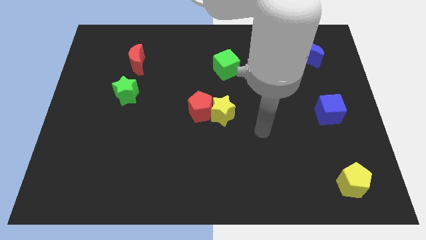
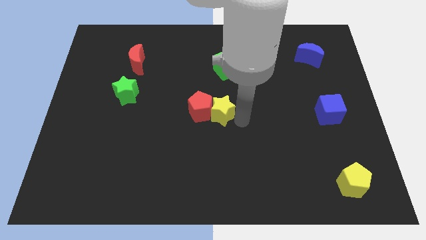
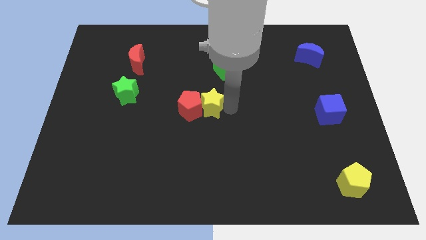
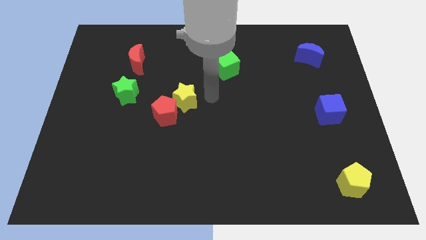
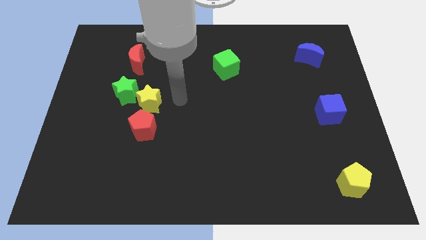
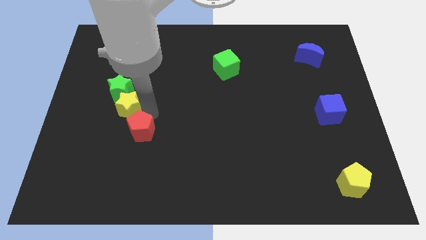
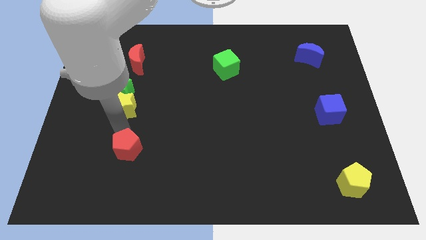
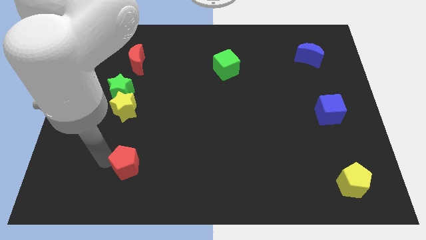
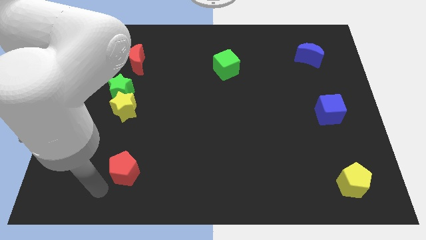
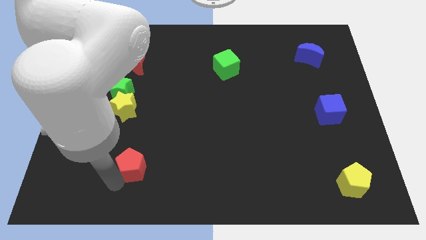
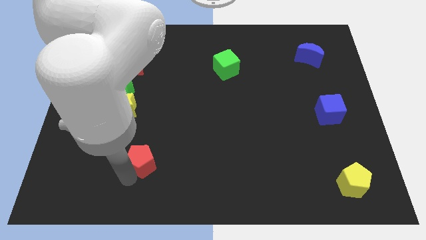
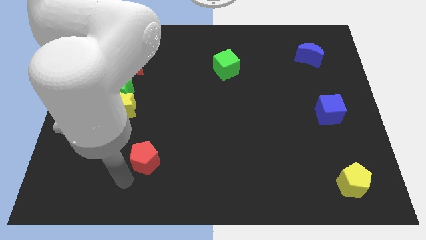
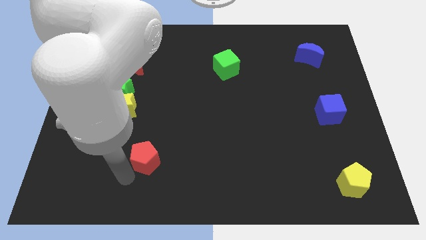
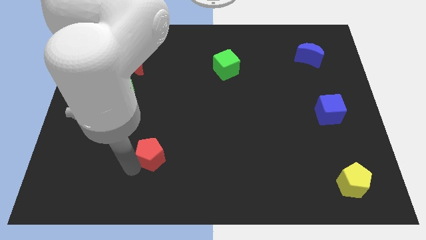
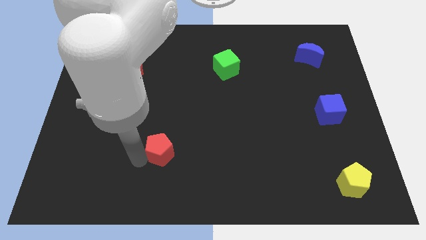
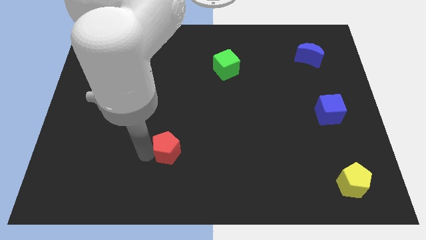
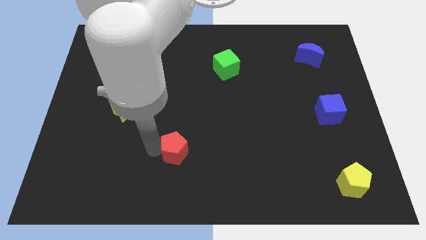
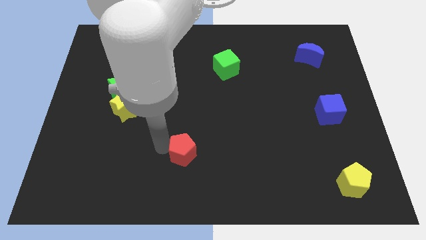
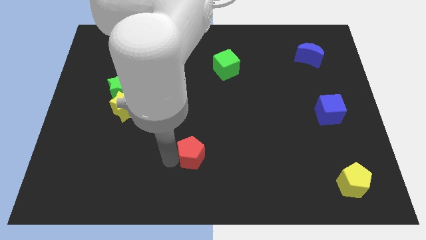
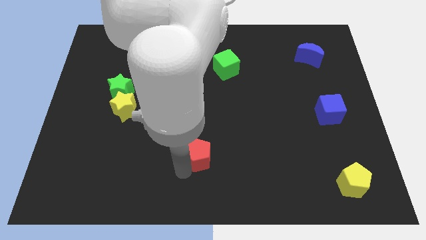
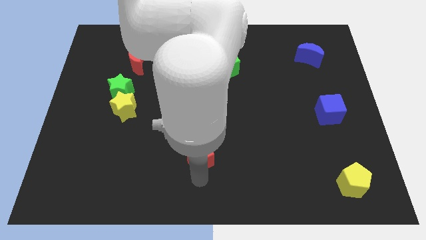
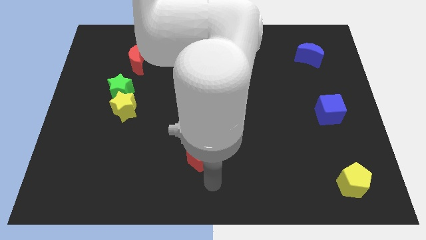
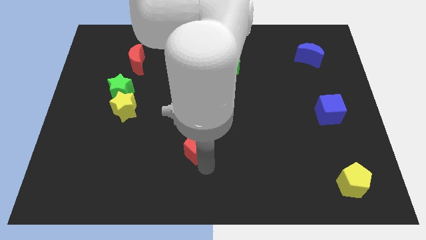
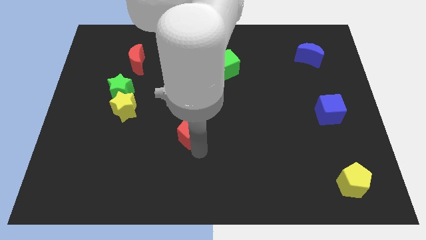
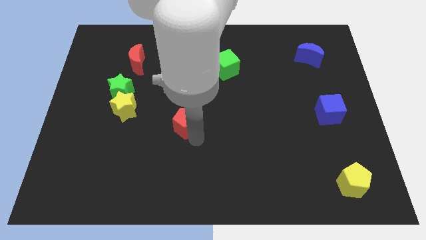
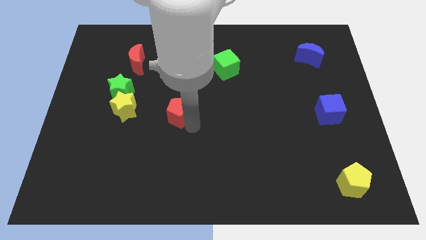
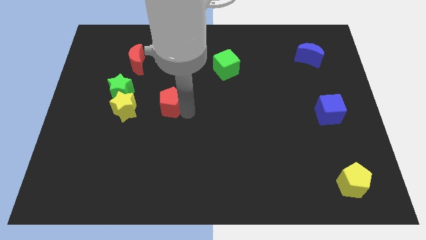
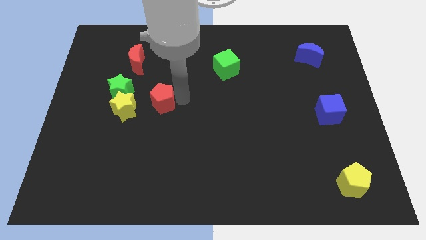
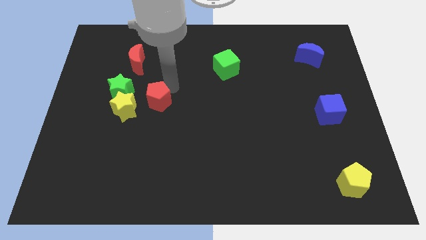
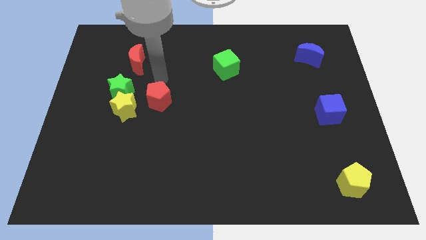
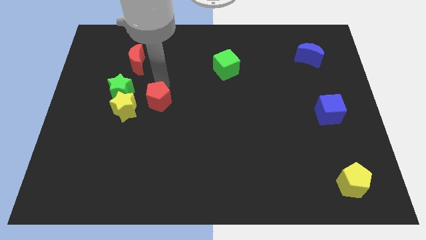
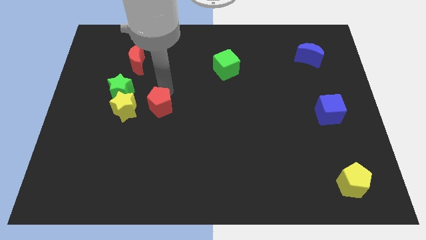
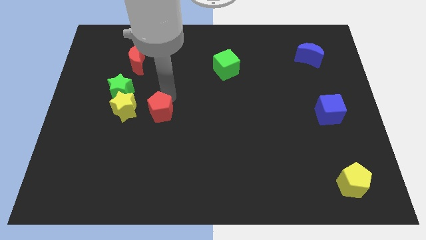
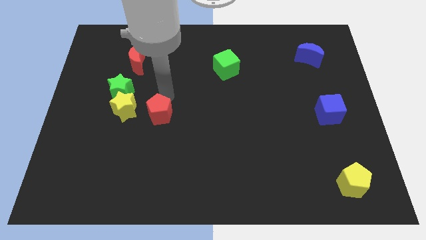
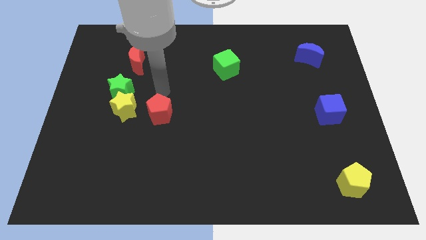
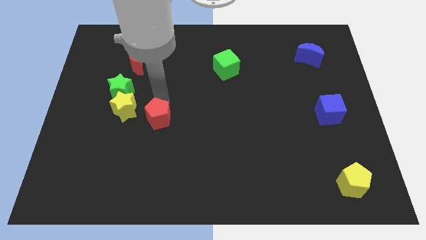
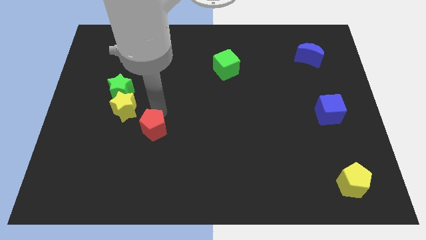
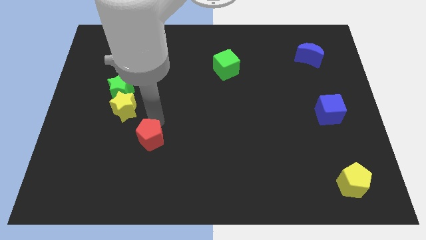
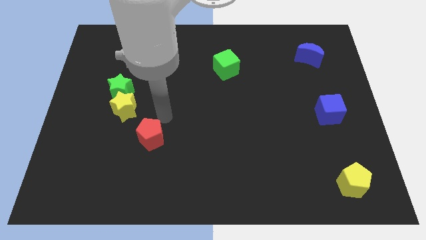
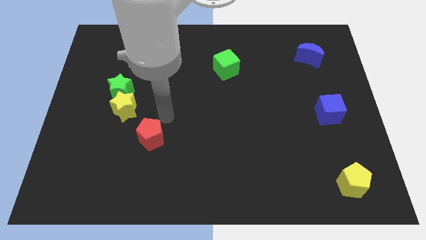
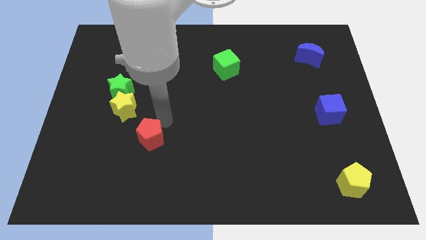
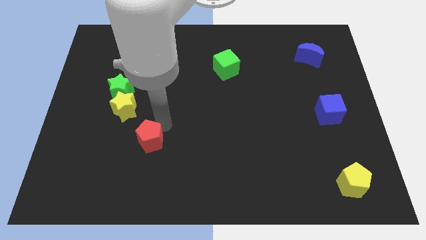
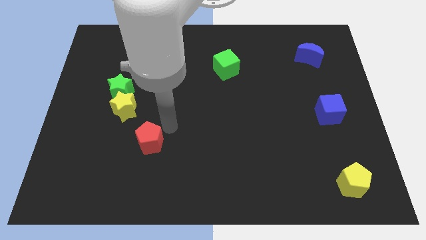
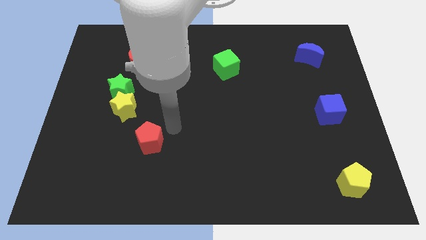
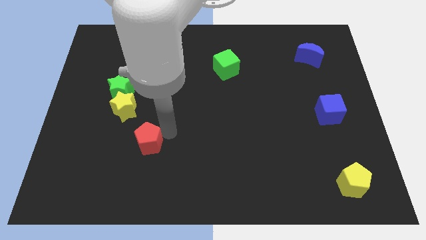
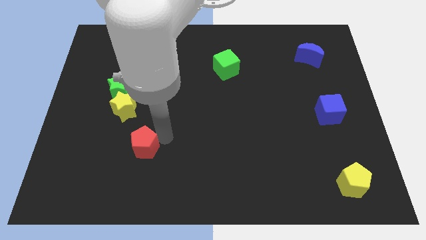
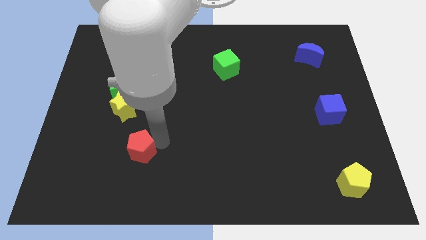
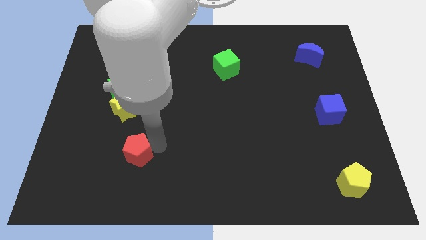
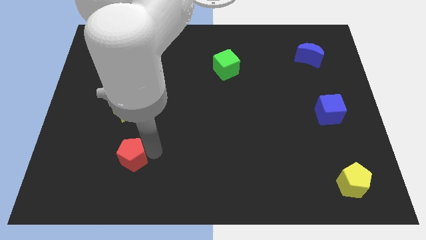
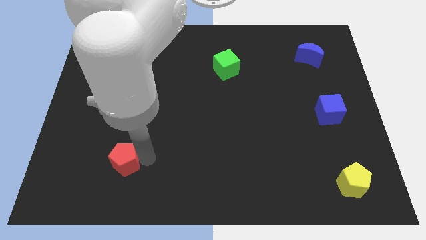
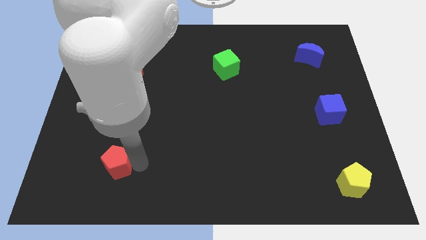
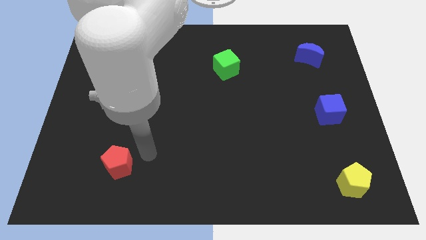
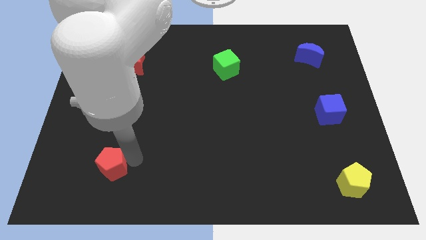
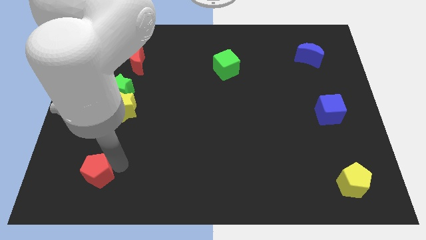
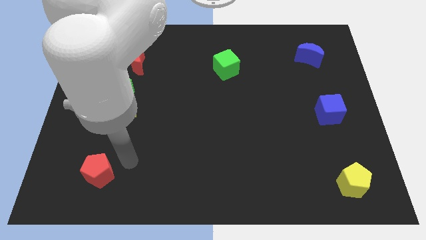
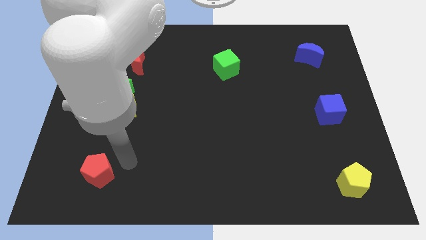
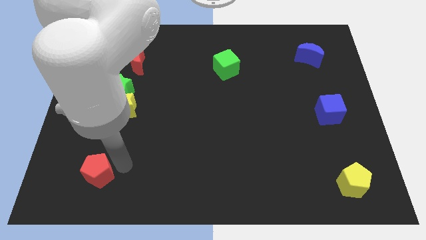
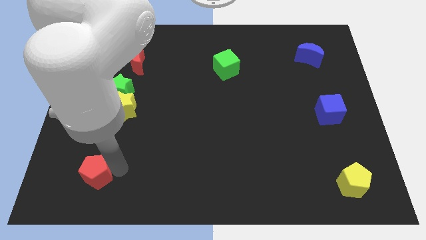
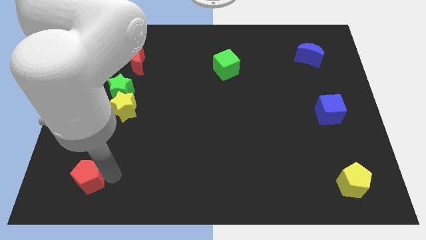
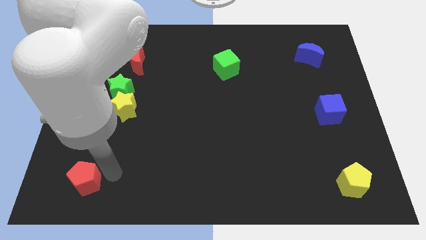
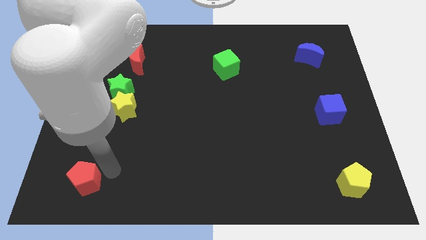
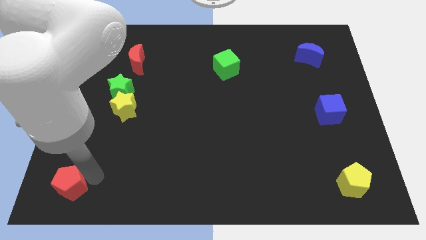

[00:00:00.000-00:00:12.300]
put the red pentagon to the bottom left corner

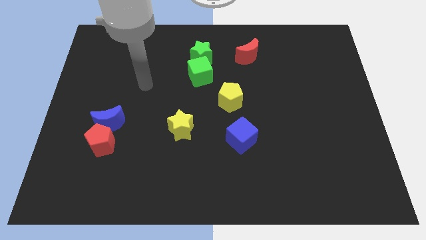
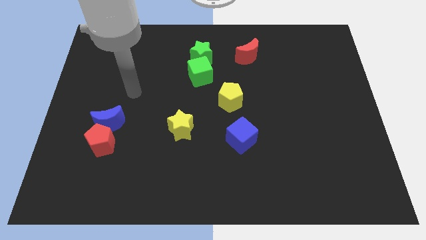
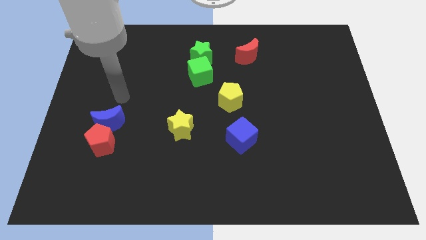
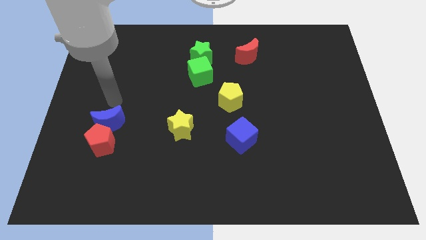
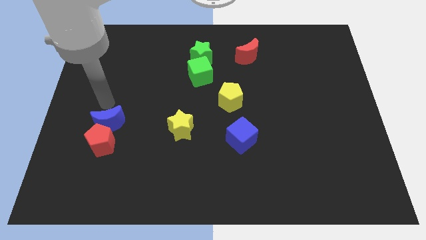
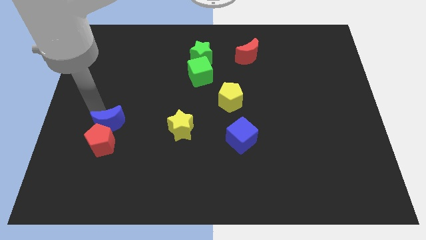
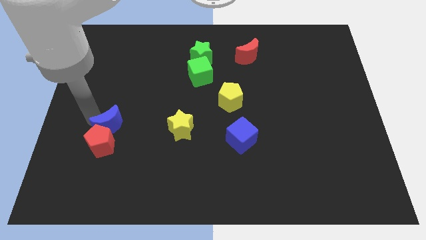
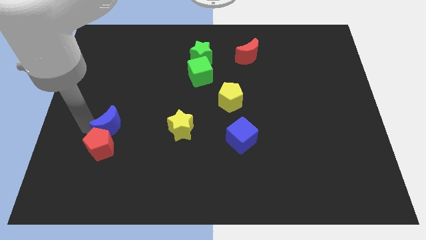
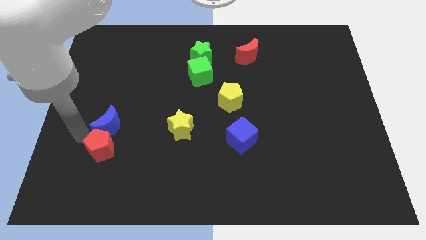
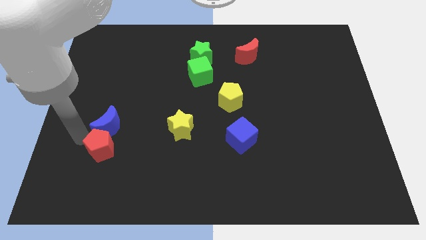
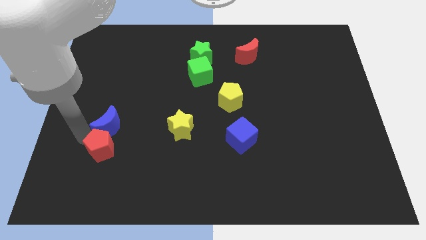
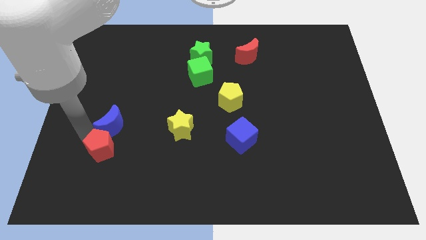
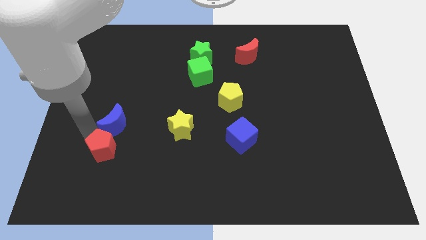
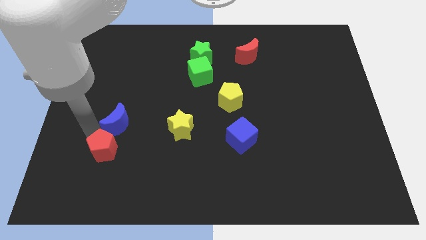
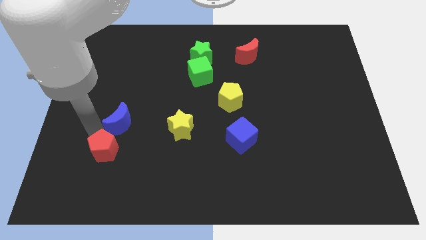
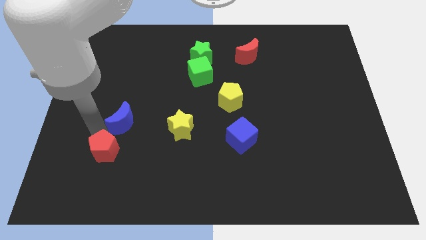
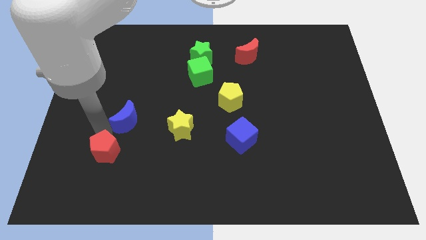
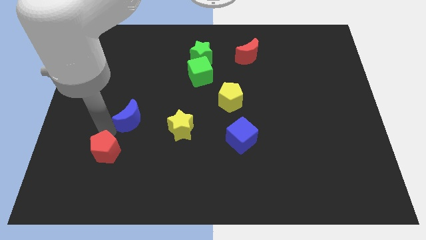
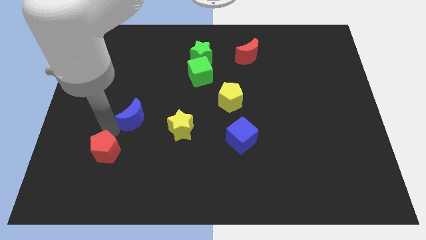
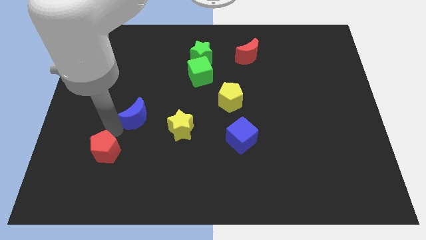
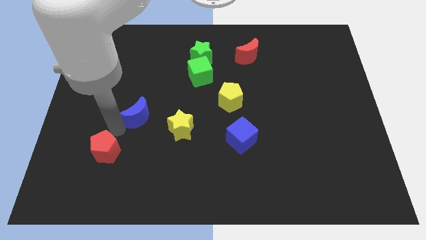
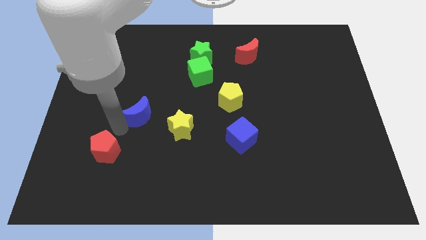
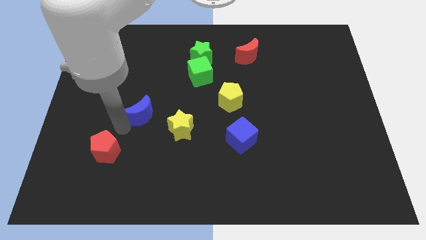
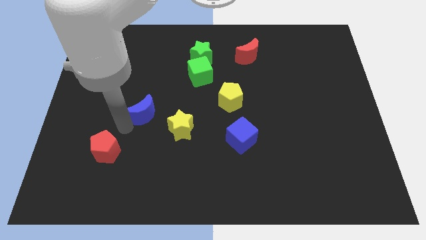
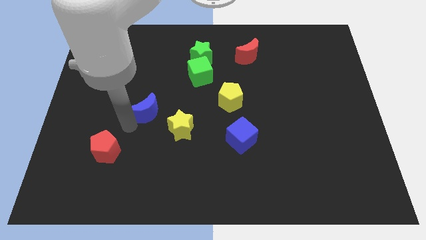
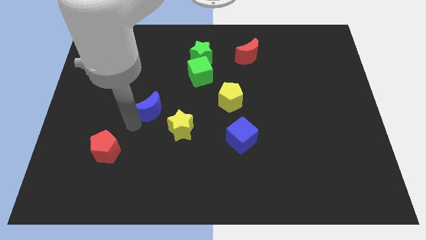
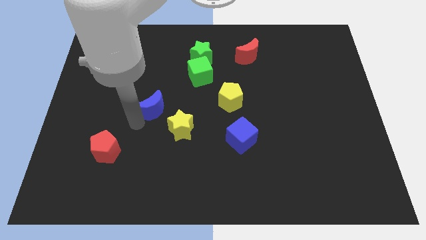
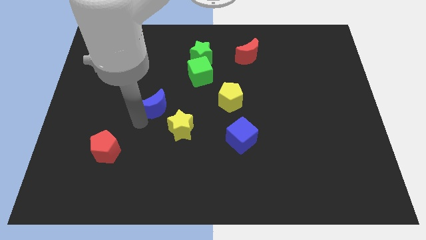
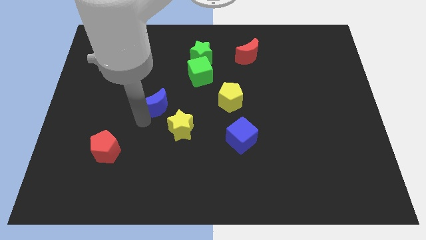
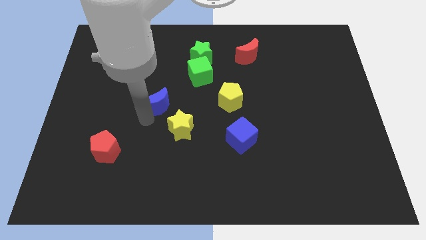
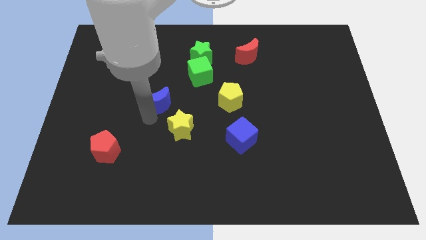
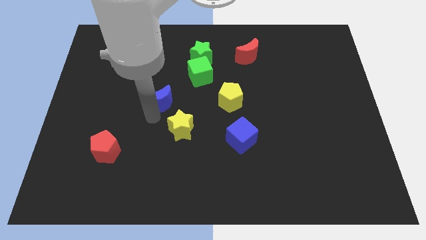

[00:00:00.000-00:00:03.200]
slide the blue moon to the middle of the board
